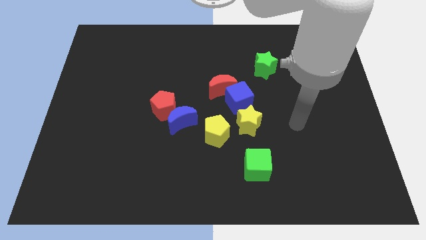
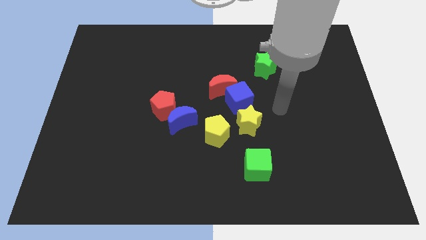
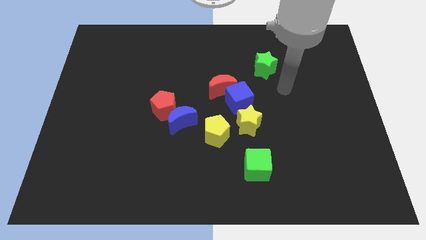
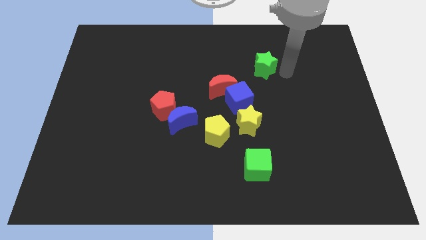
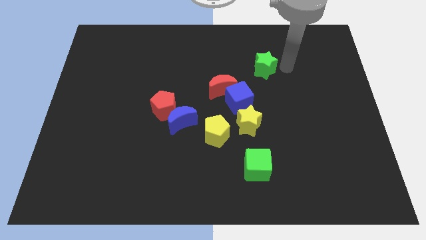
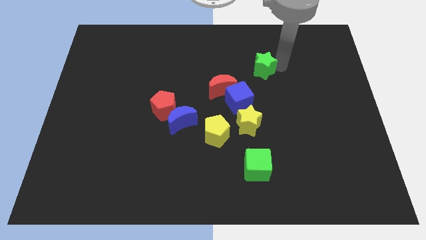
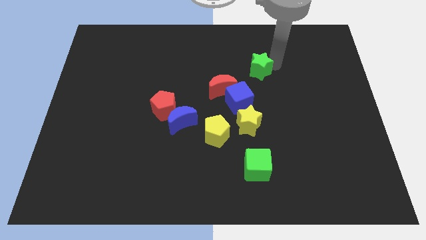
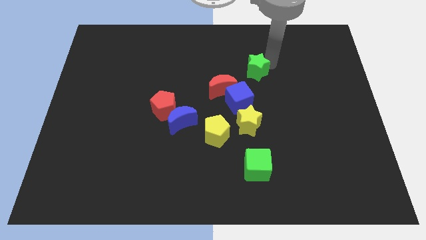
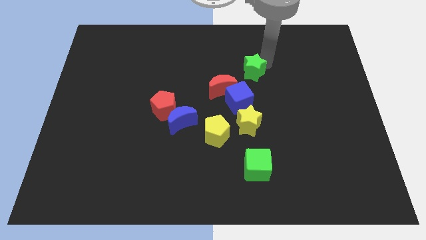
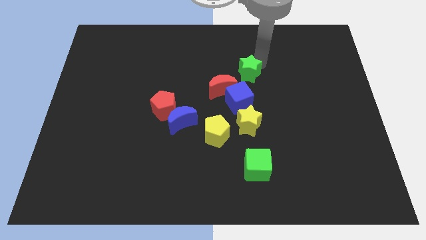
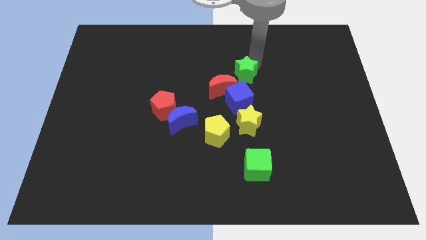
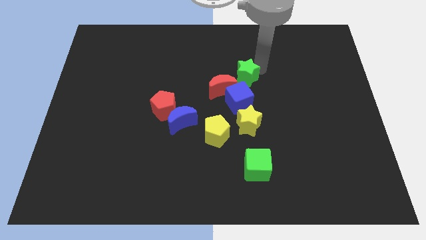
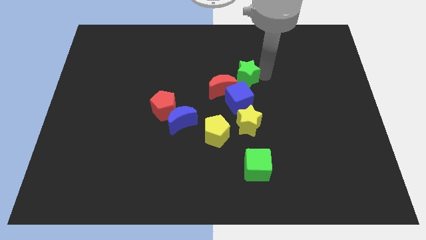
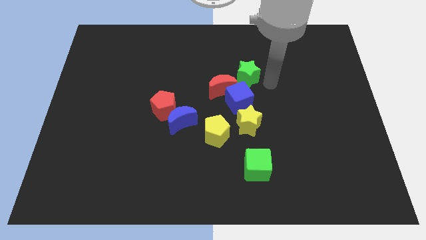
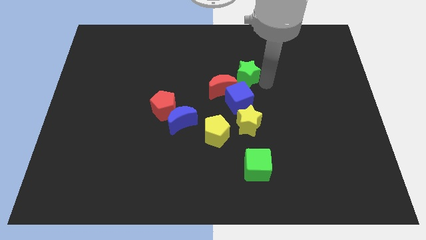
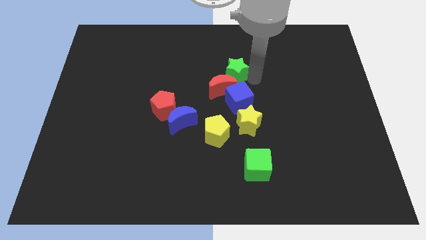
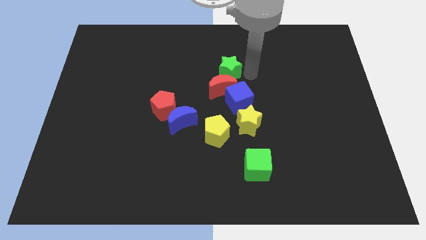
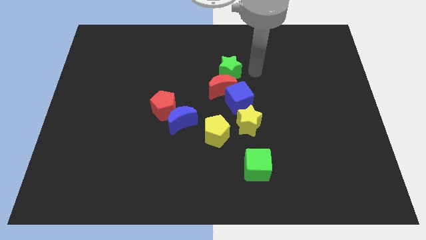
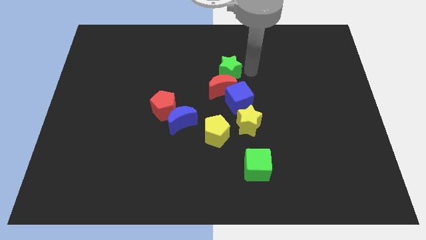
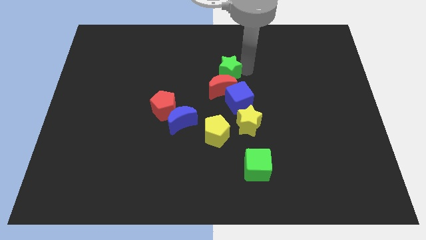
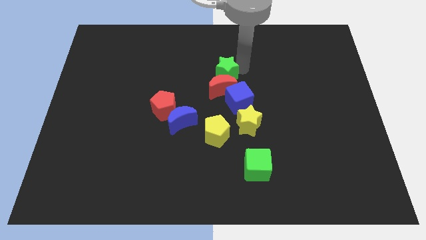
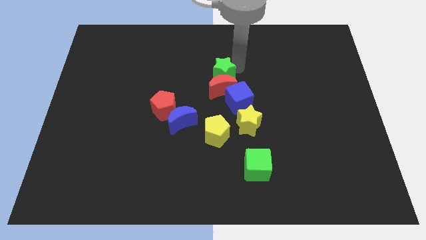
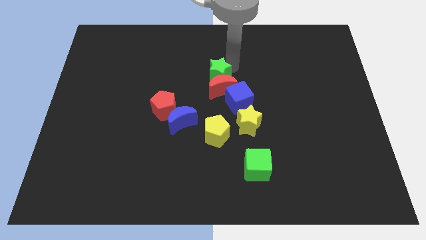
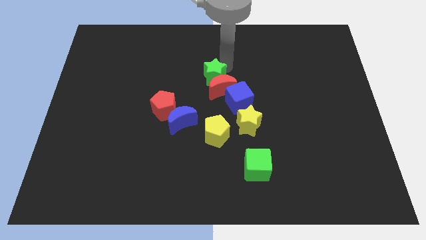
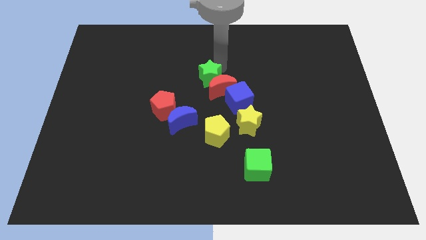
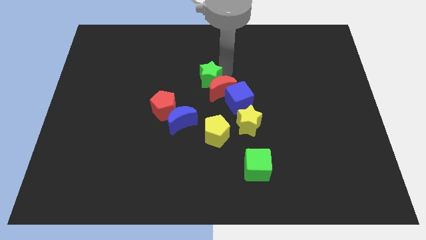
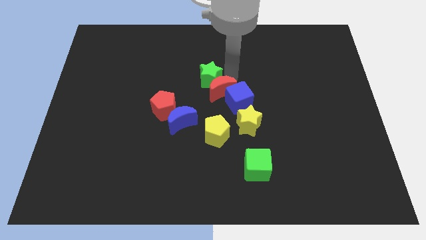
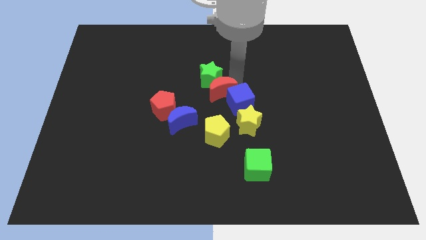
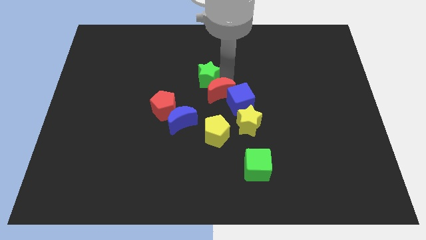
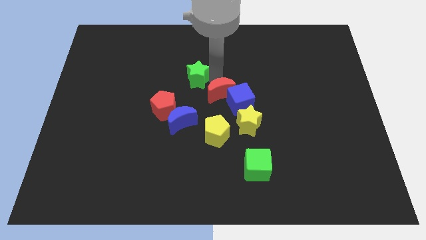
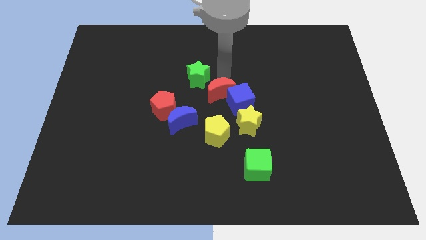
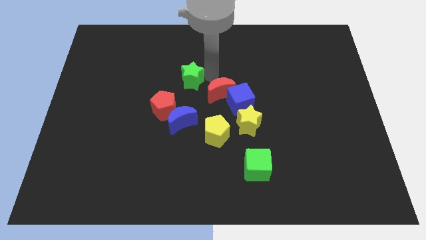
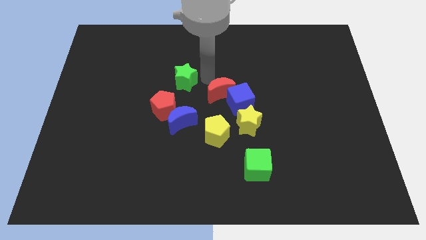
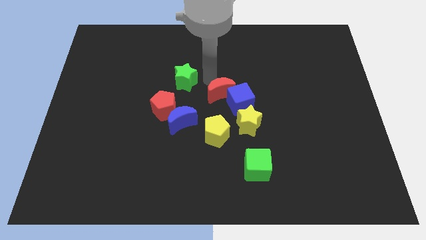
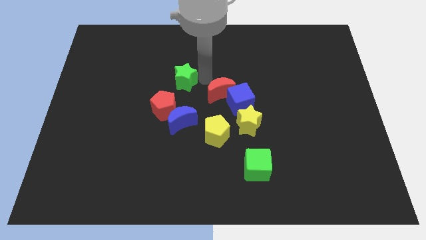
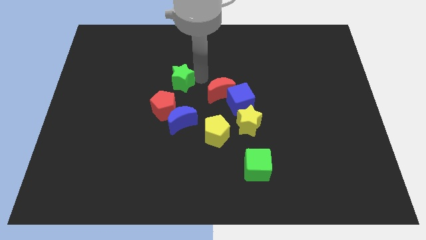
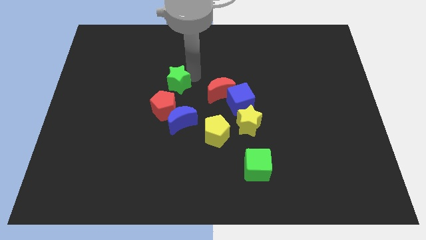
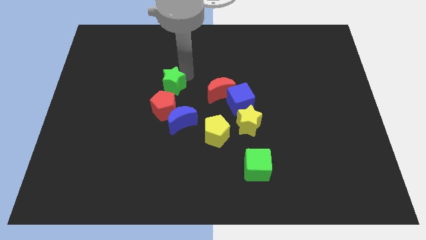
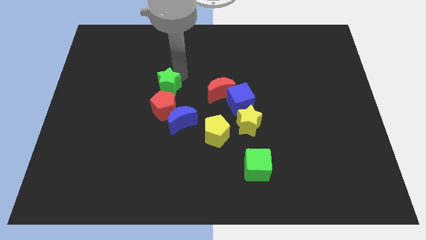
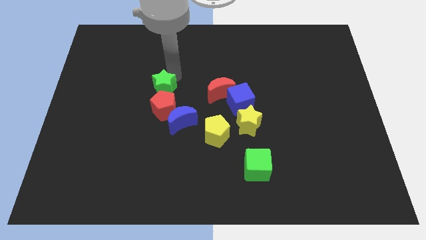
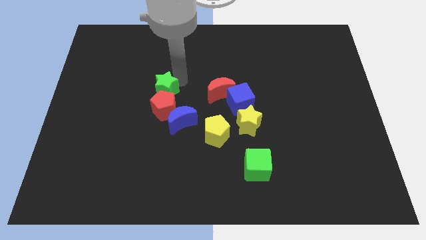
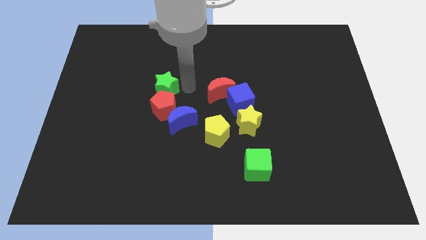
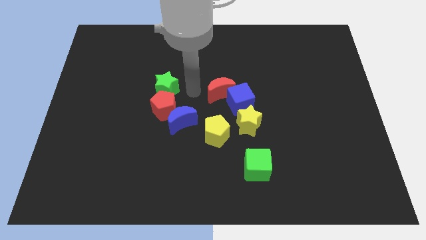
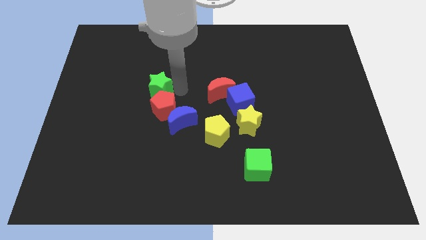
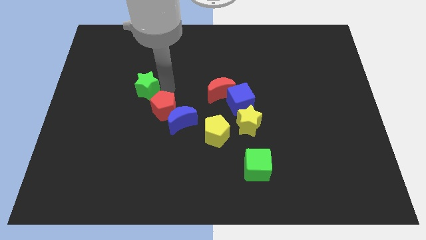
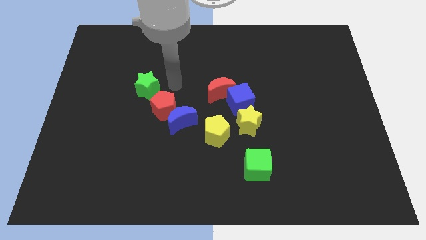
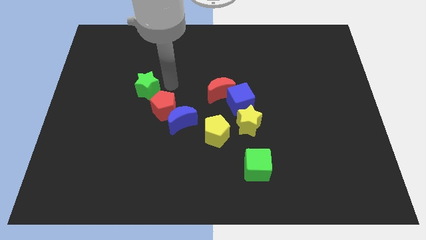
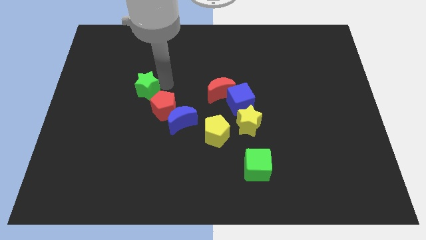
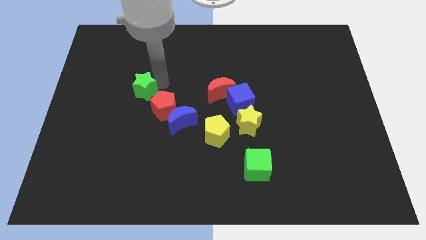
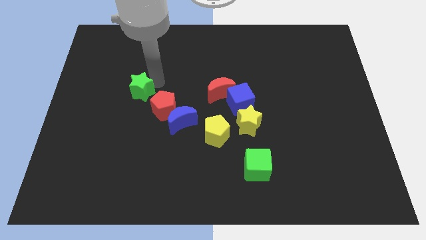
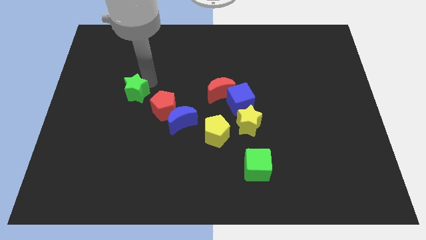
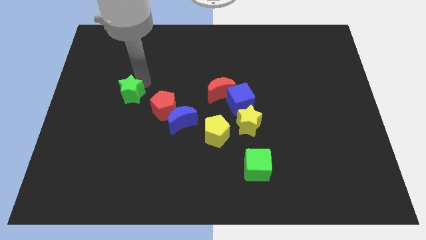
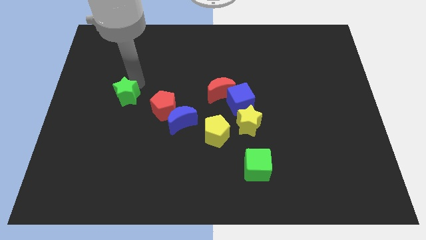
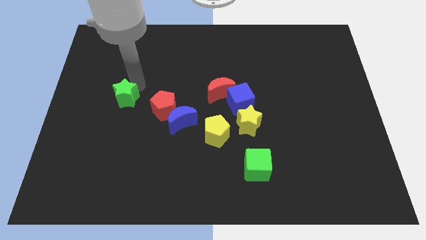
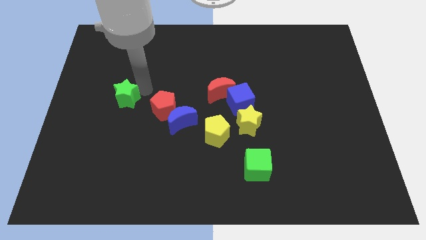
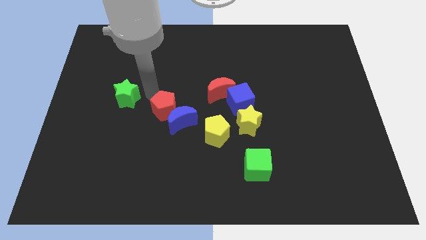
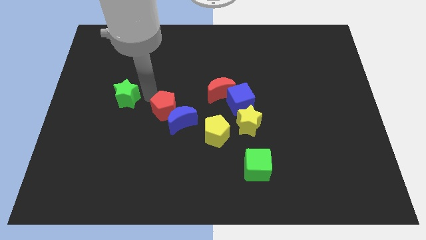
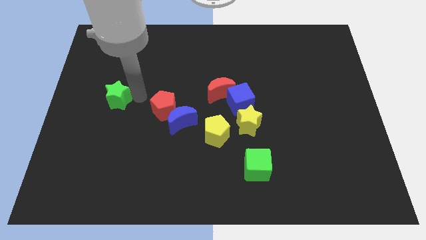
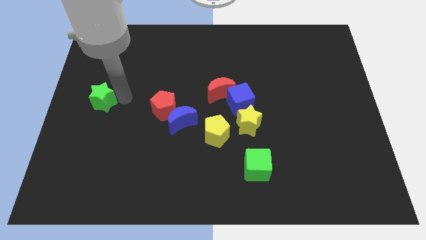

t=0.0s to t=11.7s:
push the green star to the left side
